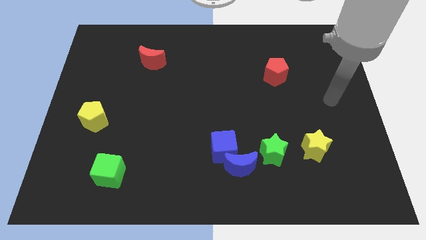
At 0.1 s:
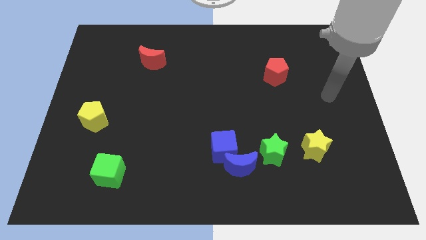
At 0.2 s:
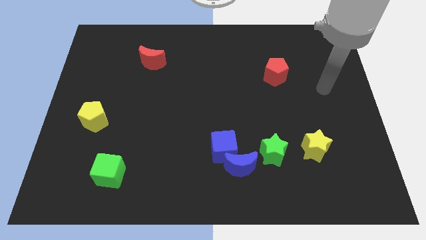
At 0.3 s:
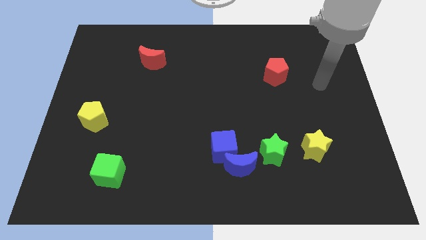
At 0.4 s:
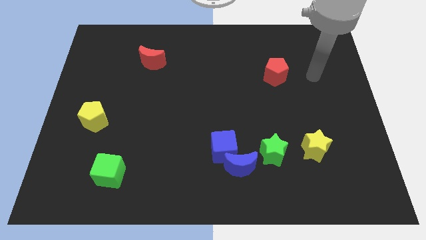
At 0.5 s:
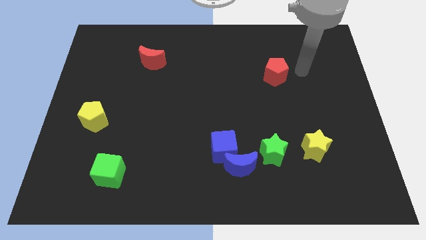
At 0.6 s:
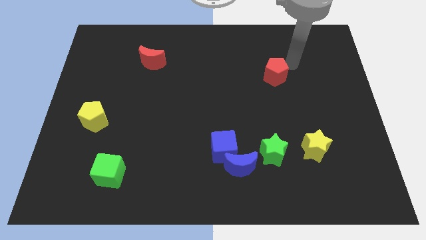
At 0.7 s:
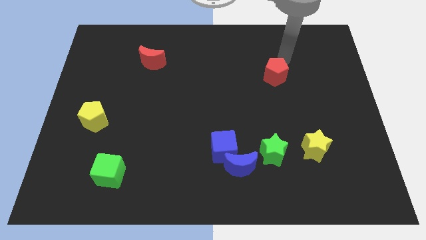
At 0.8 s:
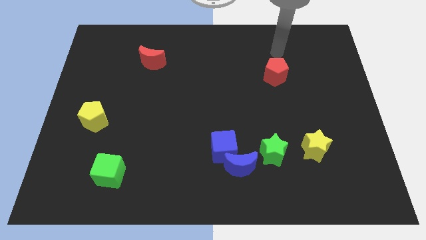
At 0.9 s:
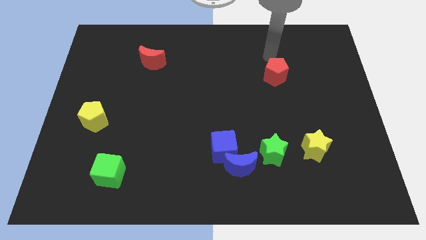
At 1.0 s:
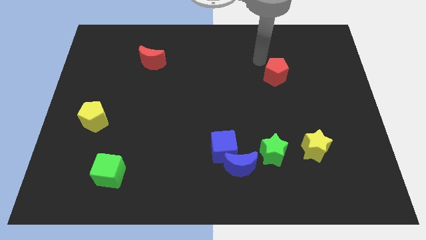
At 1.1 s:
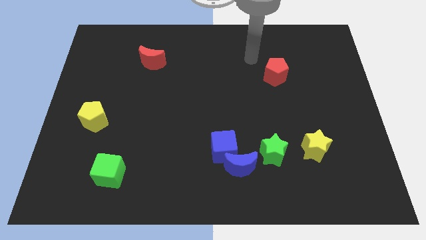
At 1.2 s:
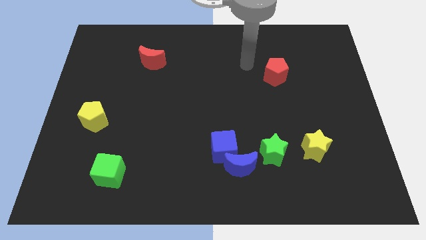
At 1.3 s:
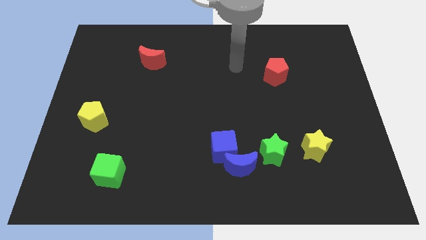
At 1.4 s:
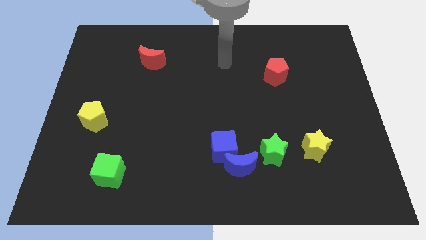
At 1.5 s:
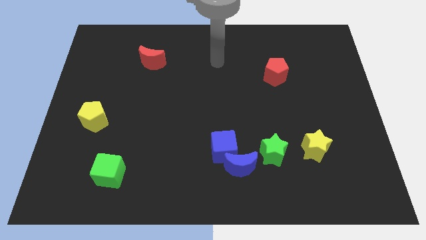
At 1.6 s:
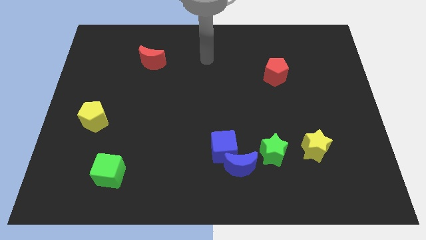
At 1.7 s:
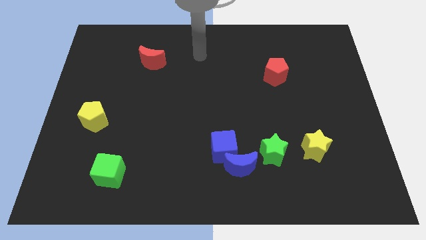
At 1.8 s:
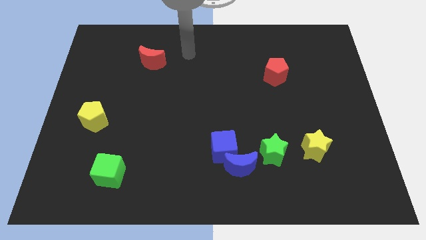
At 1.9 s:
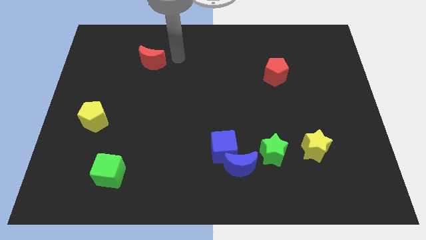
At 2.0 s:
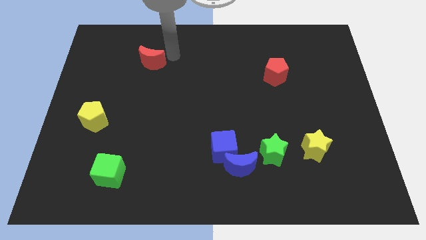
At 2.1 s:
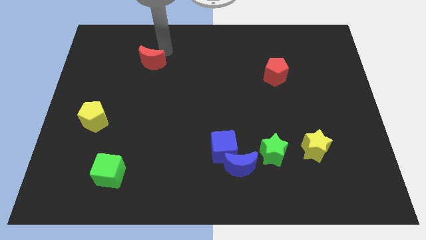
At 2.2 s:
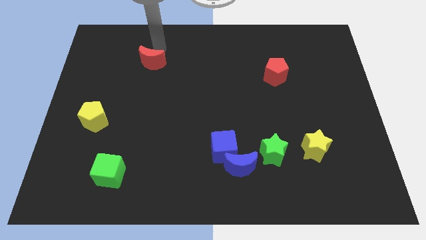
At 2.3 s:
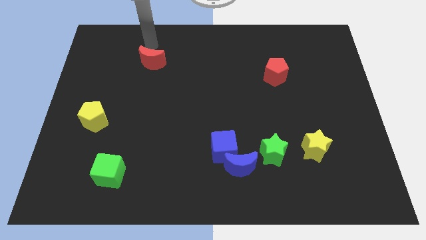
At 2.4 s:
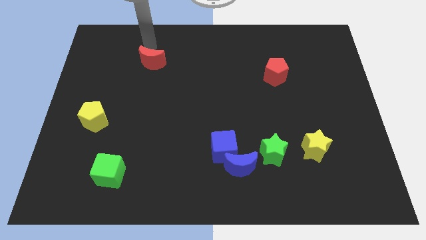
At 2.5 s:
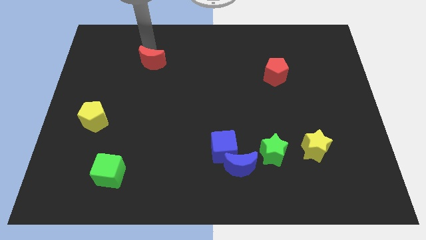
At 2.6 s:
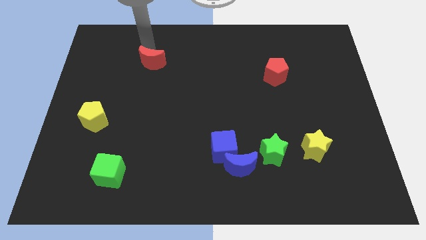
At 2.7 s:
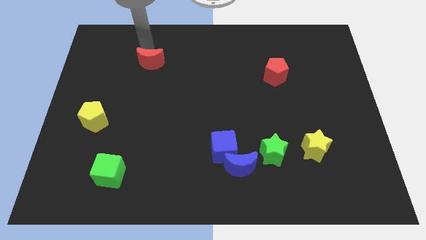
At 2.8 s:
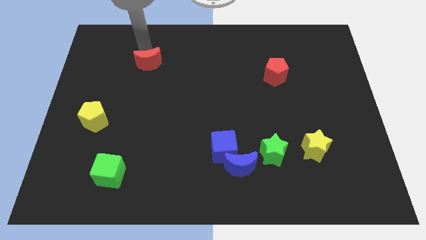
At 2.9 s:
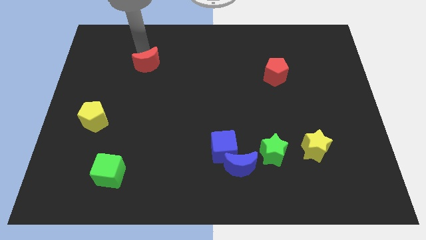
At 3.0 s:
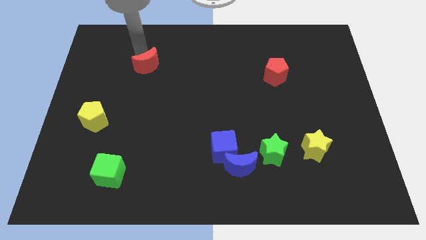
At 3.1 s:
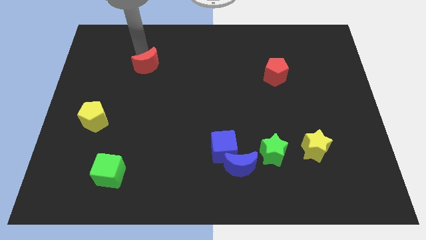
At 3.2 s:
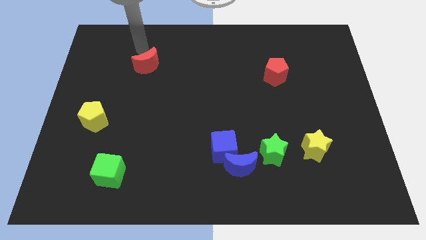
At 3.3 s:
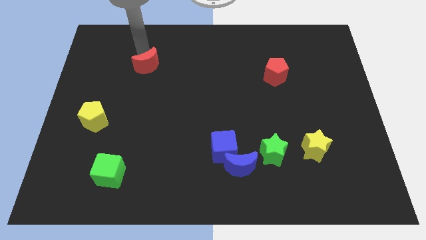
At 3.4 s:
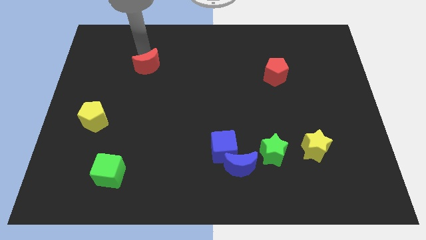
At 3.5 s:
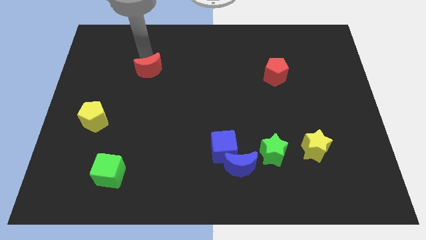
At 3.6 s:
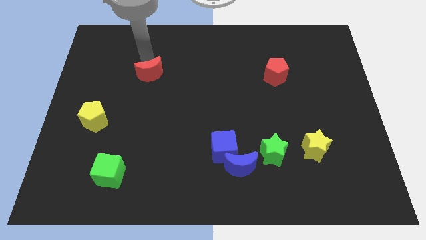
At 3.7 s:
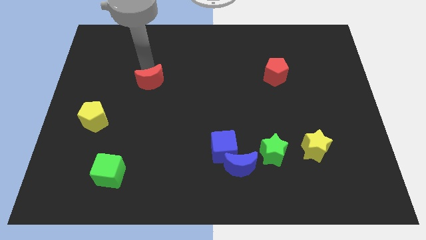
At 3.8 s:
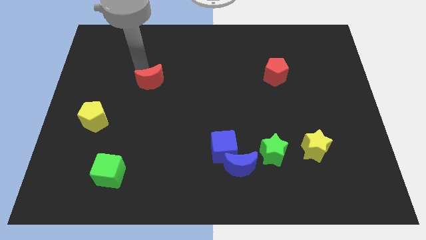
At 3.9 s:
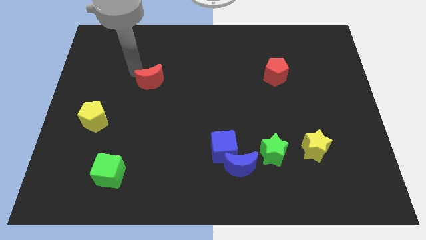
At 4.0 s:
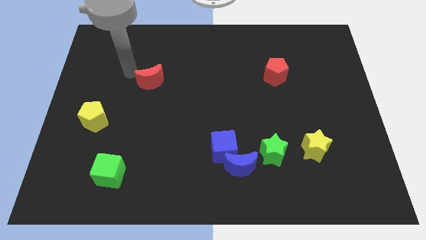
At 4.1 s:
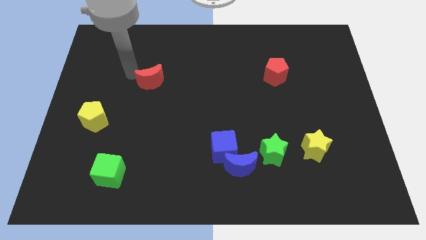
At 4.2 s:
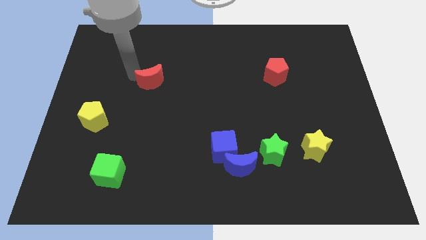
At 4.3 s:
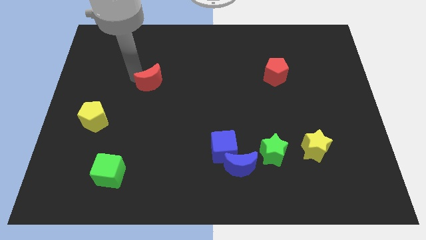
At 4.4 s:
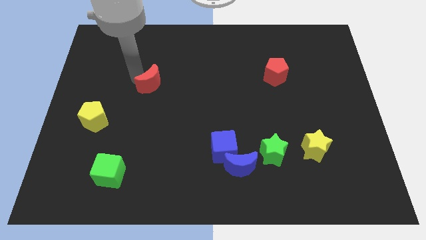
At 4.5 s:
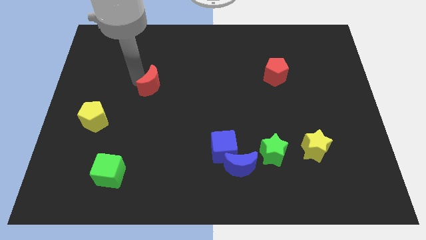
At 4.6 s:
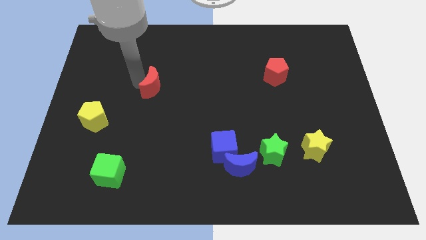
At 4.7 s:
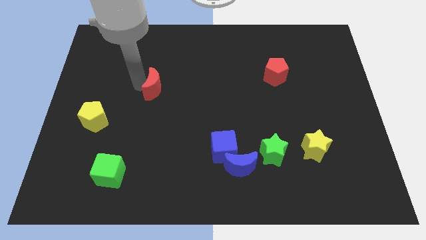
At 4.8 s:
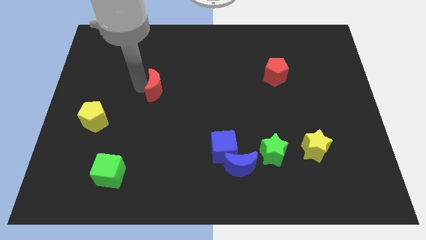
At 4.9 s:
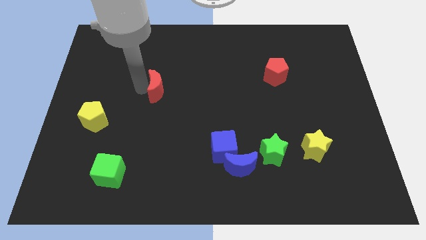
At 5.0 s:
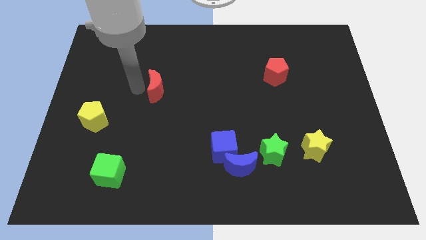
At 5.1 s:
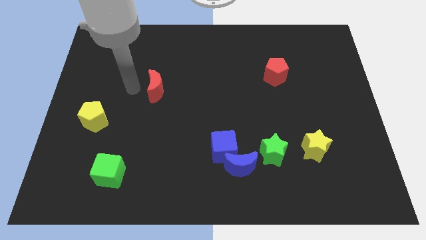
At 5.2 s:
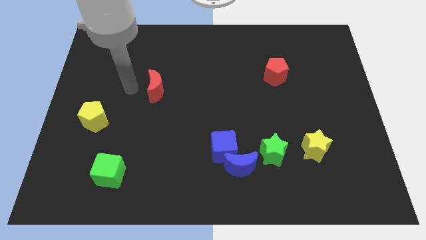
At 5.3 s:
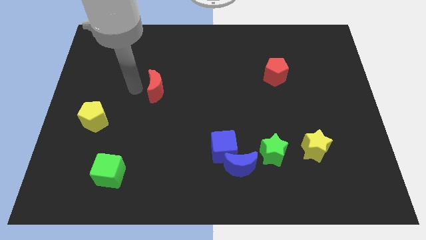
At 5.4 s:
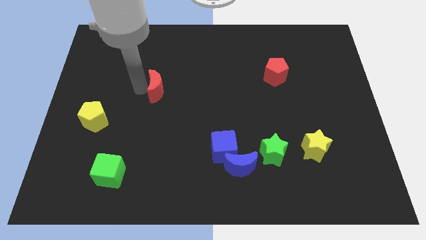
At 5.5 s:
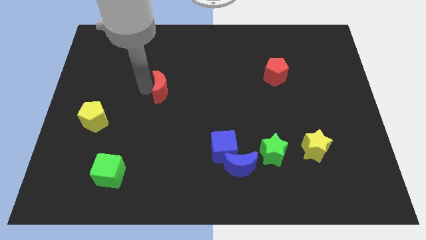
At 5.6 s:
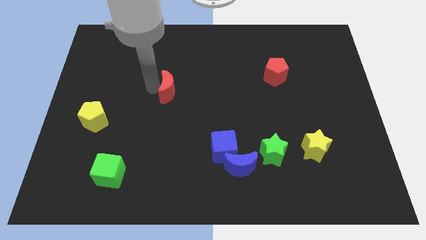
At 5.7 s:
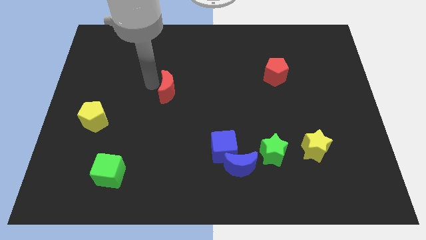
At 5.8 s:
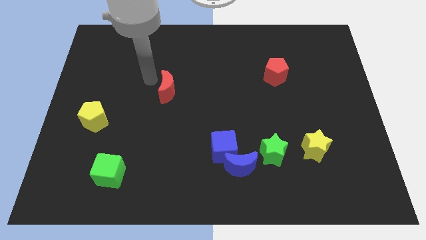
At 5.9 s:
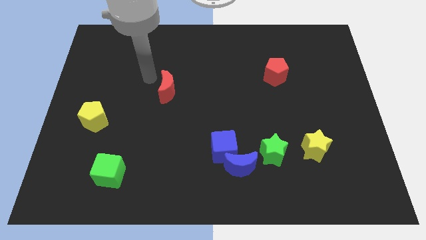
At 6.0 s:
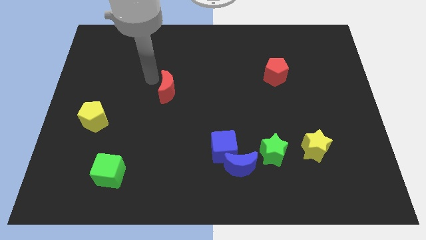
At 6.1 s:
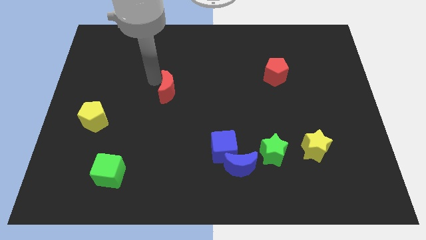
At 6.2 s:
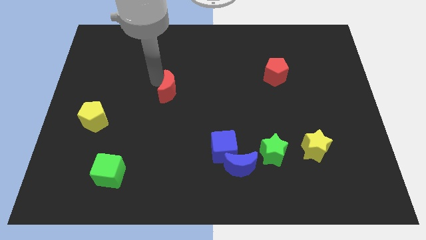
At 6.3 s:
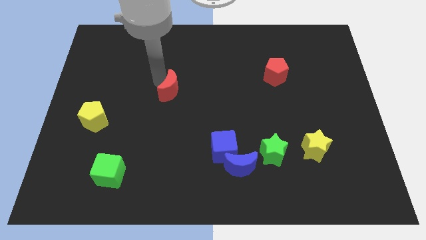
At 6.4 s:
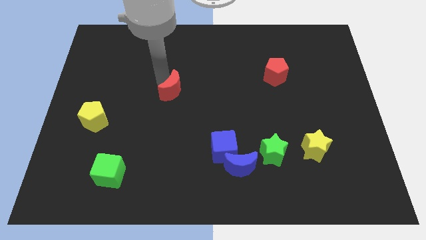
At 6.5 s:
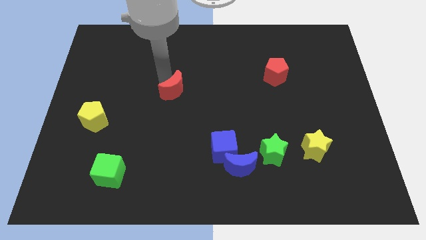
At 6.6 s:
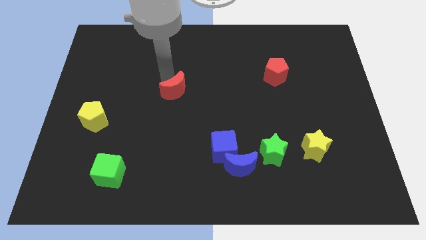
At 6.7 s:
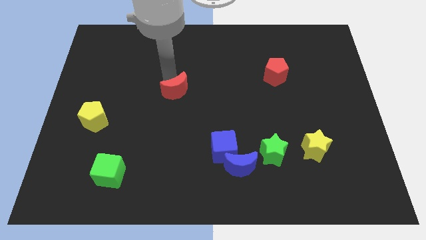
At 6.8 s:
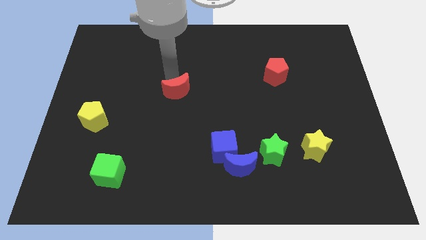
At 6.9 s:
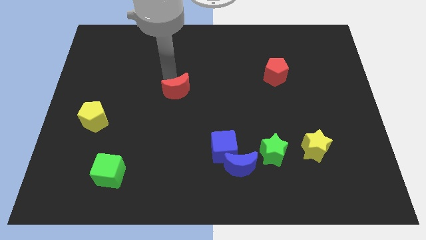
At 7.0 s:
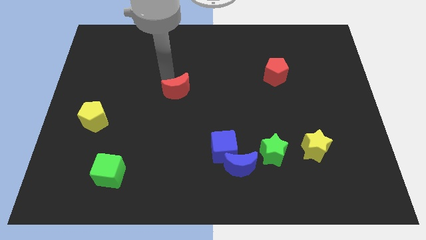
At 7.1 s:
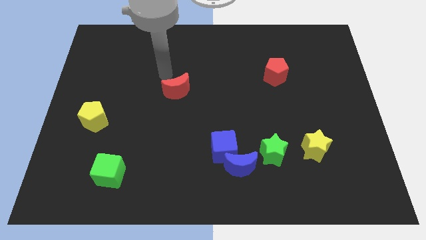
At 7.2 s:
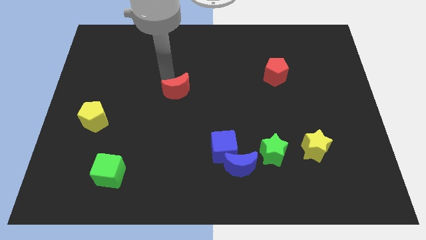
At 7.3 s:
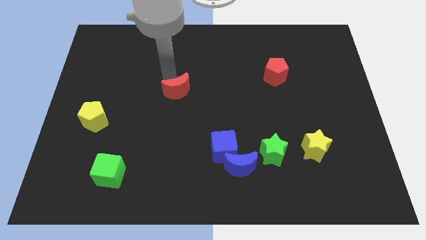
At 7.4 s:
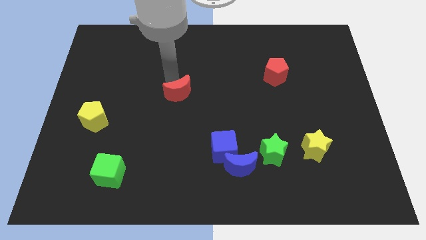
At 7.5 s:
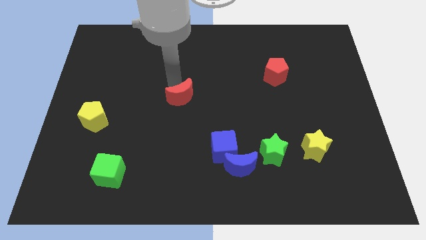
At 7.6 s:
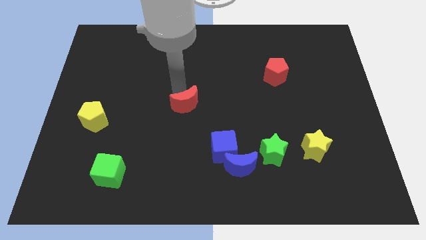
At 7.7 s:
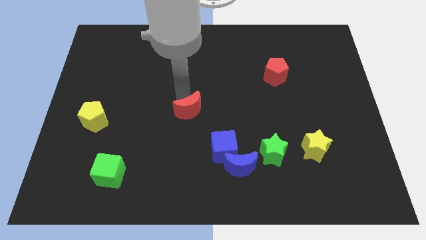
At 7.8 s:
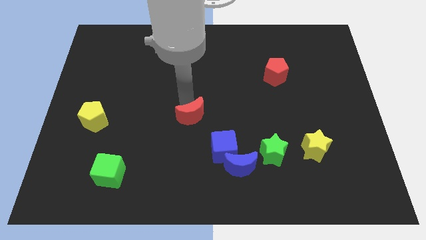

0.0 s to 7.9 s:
slide the red moon to the top left of the blue cube
